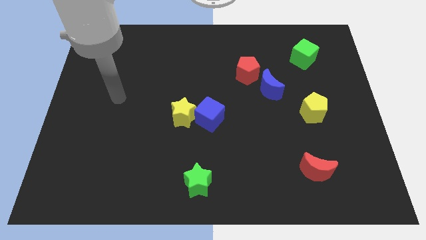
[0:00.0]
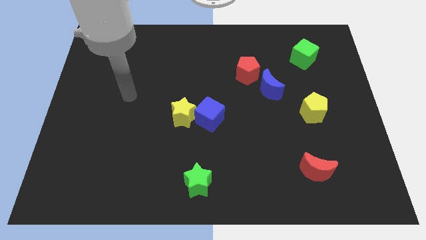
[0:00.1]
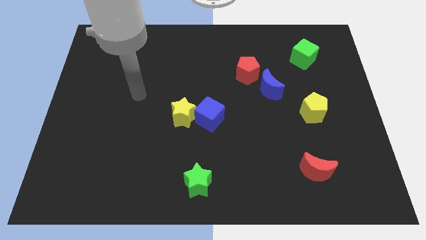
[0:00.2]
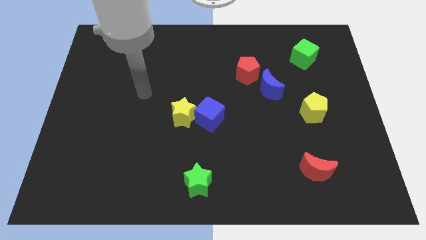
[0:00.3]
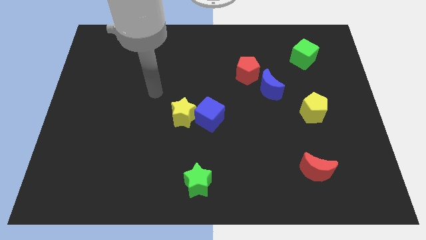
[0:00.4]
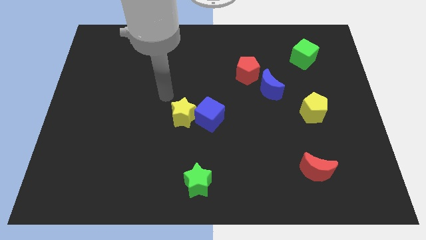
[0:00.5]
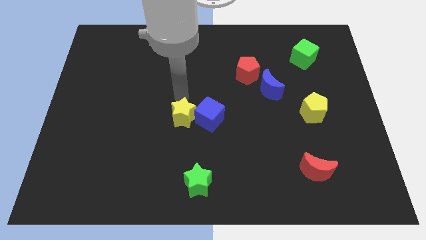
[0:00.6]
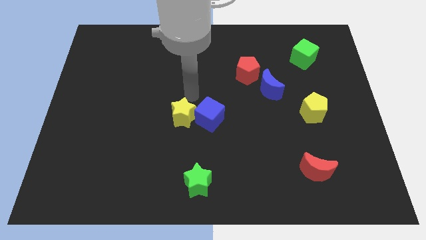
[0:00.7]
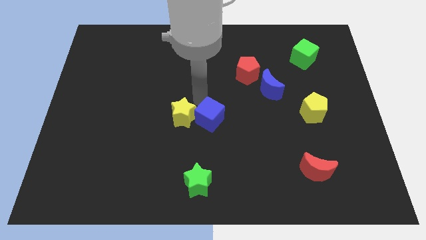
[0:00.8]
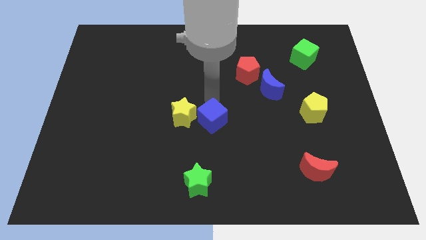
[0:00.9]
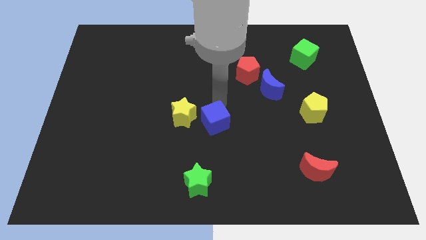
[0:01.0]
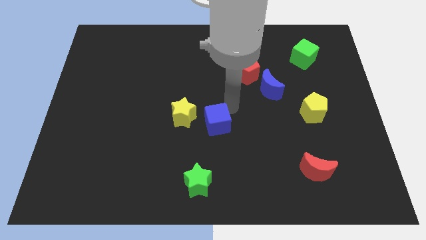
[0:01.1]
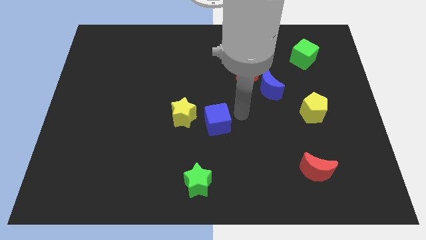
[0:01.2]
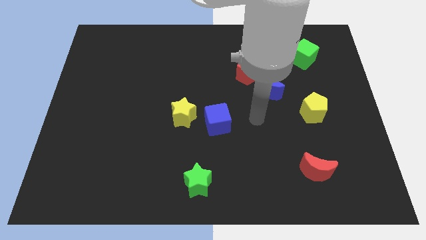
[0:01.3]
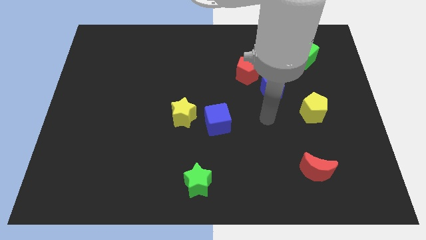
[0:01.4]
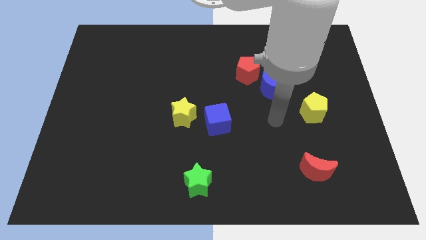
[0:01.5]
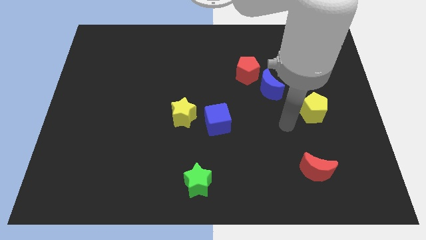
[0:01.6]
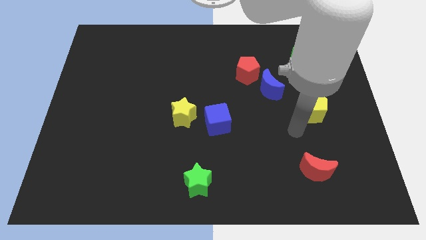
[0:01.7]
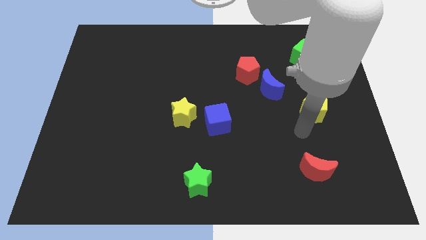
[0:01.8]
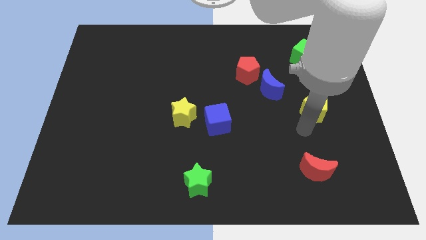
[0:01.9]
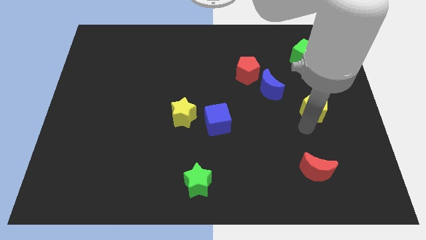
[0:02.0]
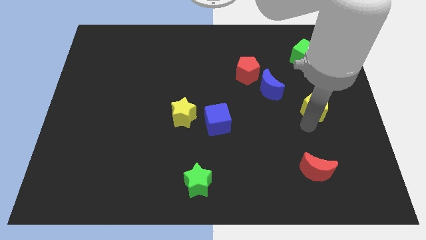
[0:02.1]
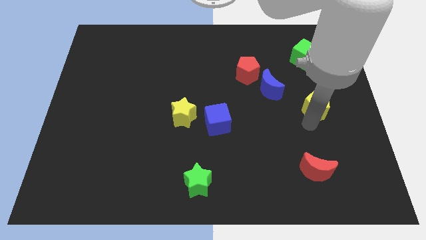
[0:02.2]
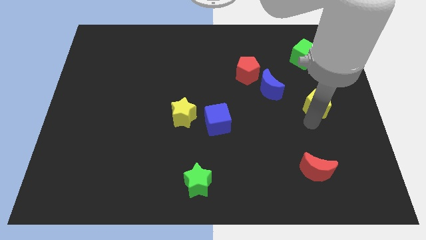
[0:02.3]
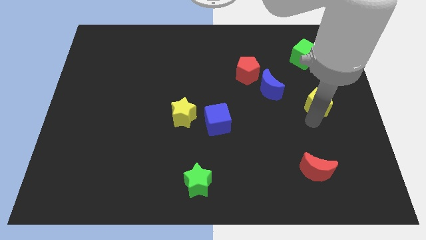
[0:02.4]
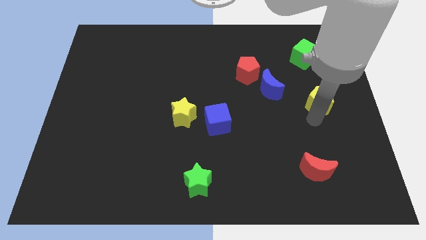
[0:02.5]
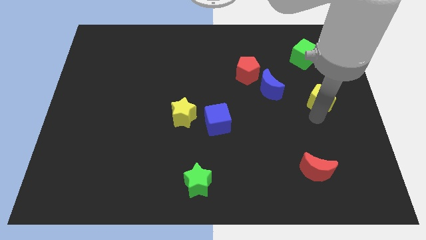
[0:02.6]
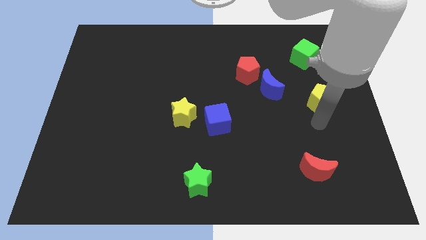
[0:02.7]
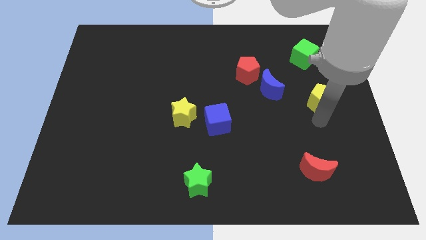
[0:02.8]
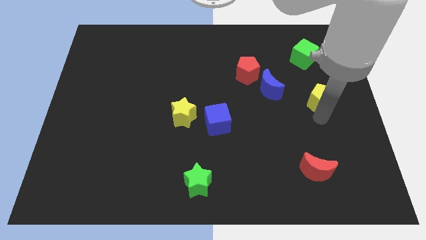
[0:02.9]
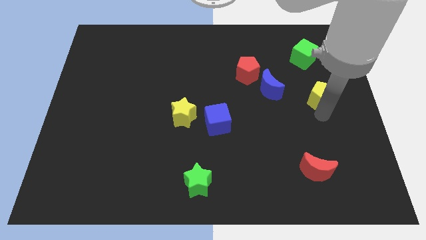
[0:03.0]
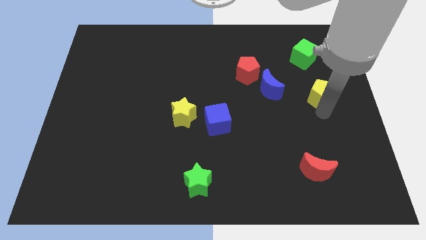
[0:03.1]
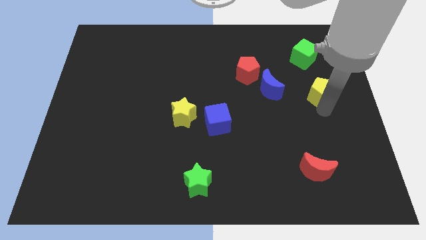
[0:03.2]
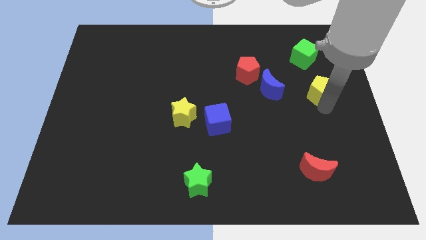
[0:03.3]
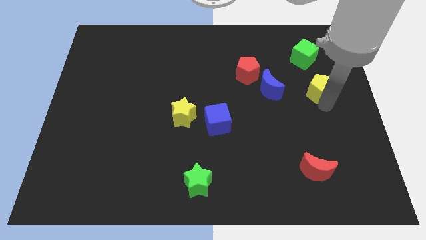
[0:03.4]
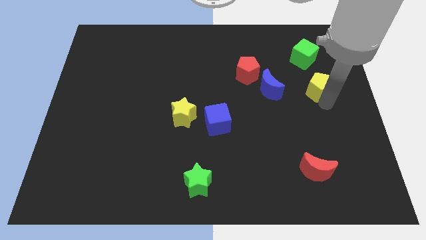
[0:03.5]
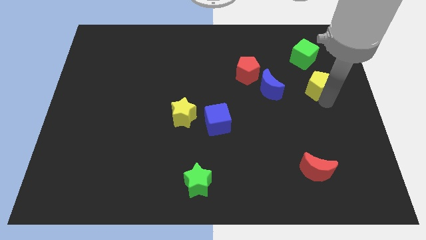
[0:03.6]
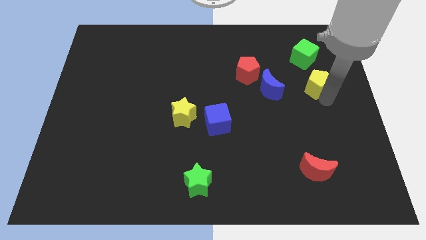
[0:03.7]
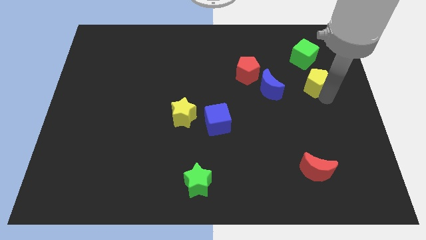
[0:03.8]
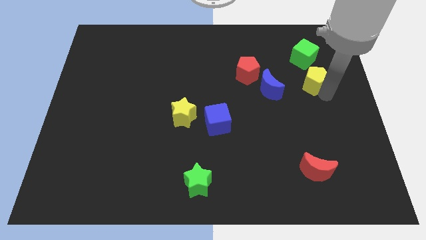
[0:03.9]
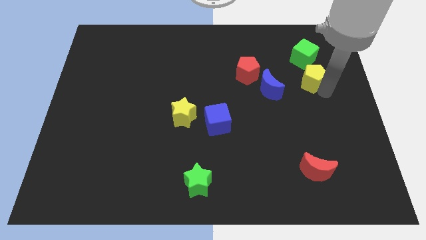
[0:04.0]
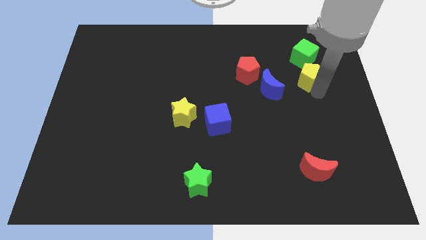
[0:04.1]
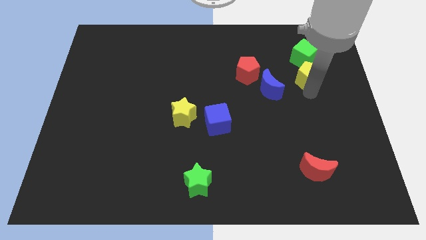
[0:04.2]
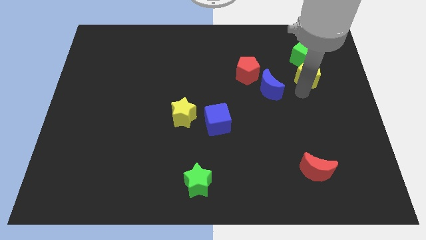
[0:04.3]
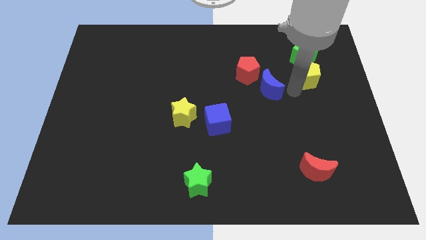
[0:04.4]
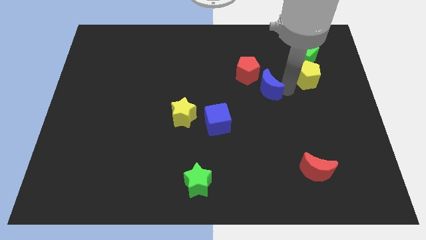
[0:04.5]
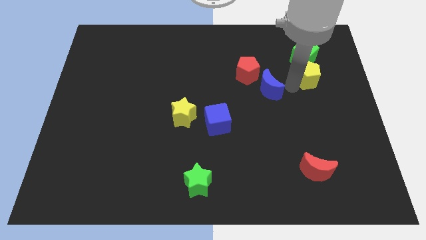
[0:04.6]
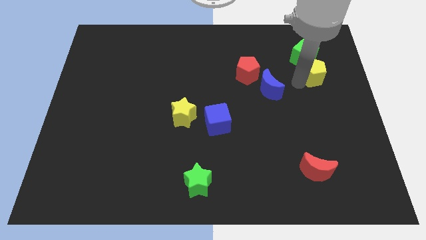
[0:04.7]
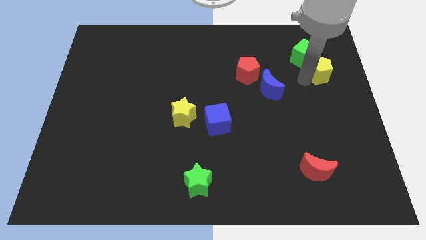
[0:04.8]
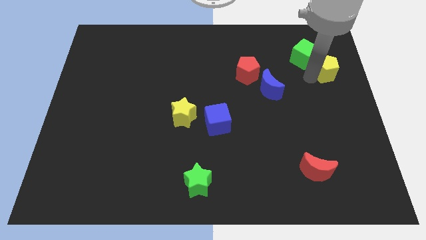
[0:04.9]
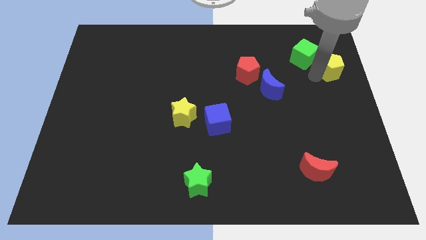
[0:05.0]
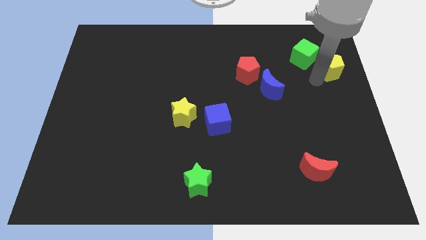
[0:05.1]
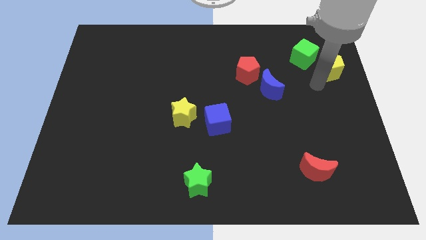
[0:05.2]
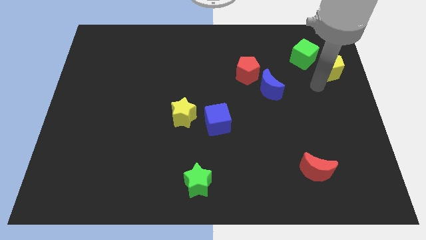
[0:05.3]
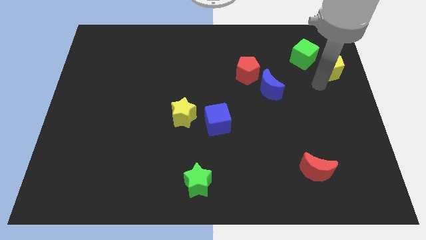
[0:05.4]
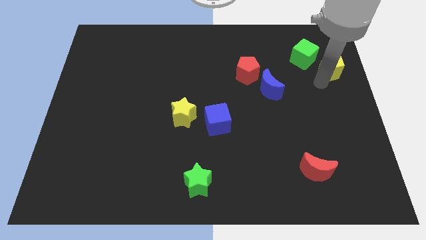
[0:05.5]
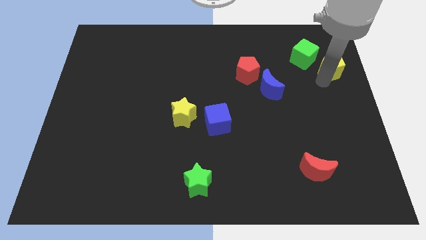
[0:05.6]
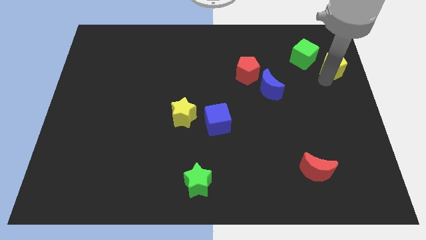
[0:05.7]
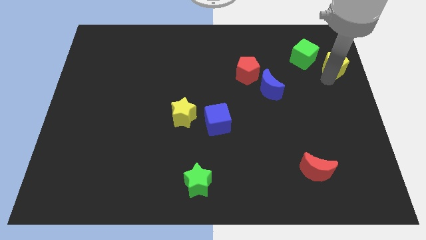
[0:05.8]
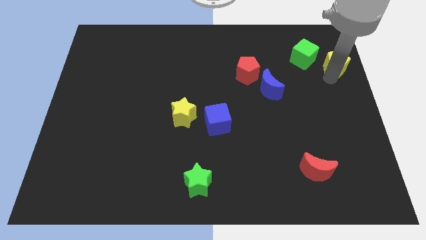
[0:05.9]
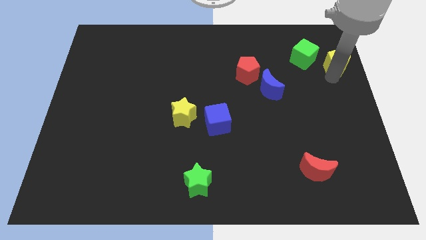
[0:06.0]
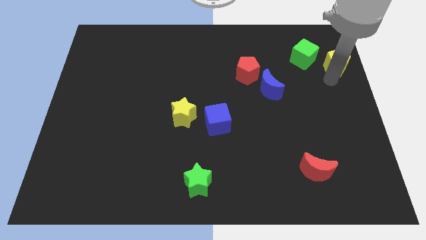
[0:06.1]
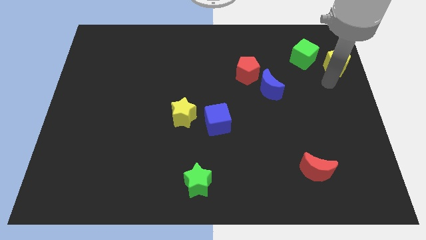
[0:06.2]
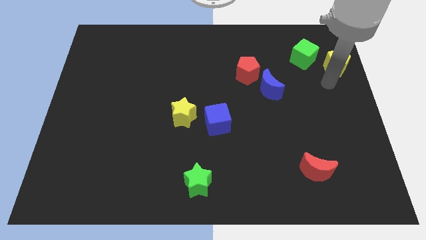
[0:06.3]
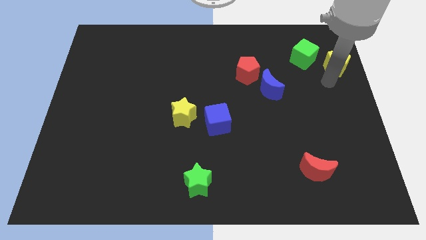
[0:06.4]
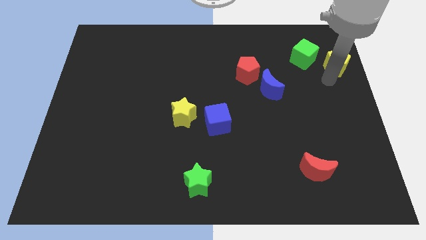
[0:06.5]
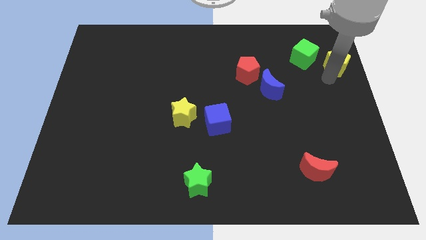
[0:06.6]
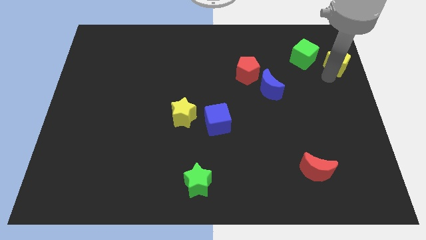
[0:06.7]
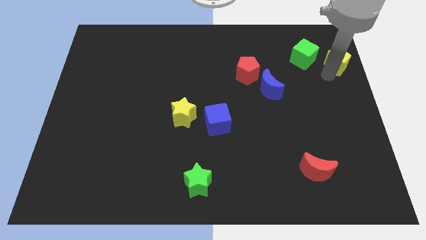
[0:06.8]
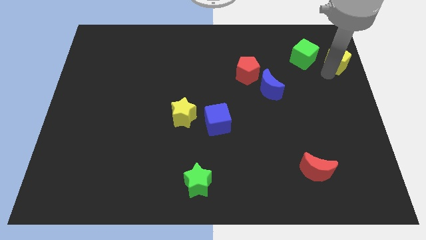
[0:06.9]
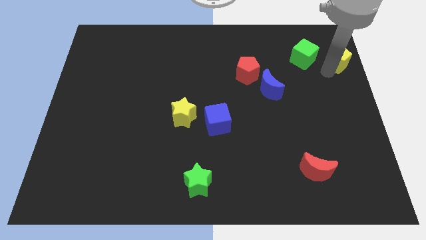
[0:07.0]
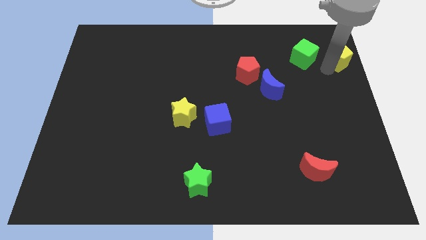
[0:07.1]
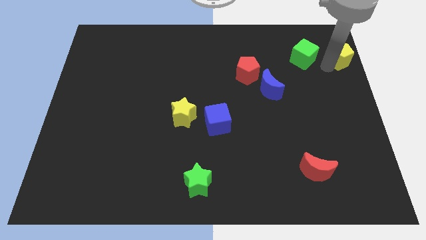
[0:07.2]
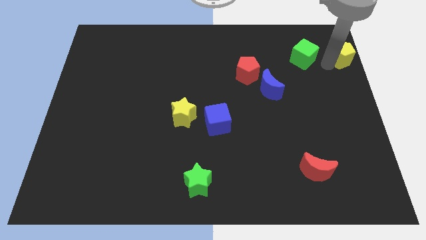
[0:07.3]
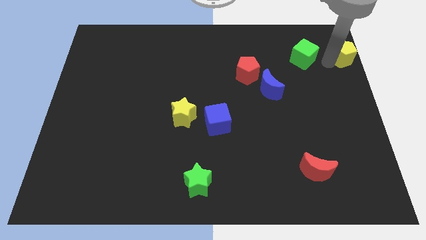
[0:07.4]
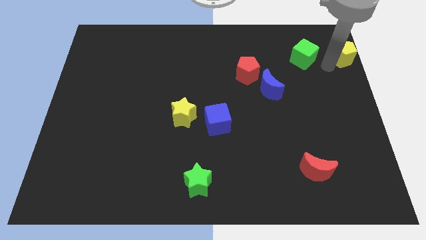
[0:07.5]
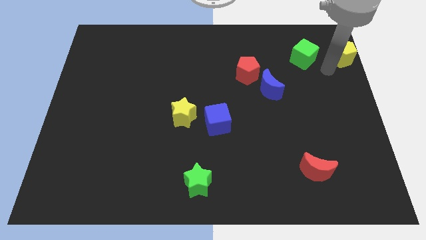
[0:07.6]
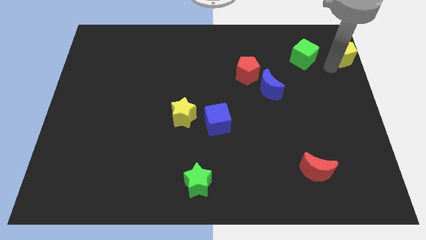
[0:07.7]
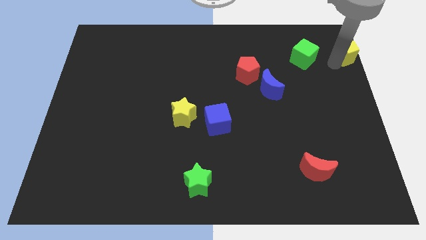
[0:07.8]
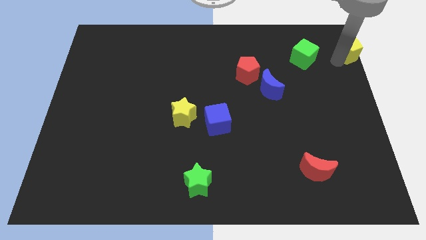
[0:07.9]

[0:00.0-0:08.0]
put the yellow pentagon to the top right of the board
